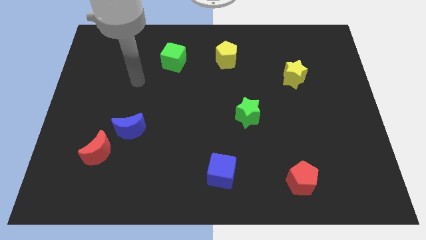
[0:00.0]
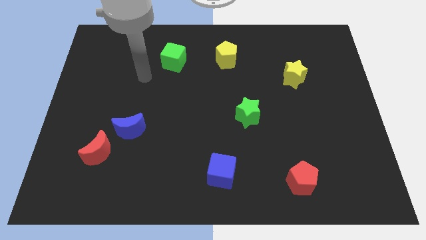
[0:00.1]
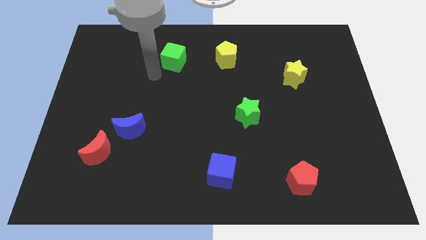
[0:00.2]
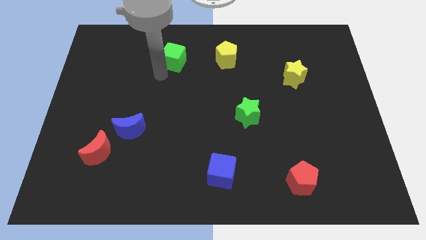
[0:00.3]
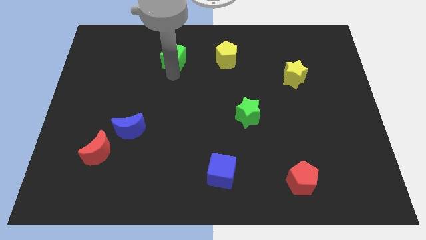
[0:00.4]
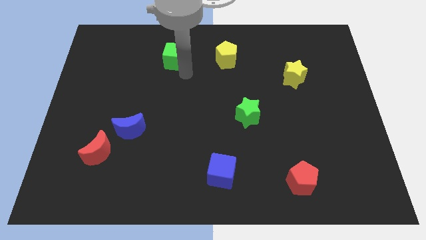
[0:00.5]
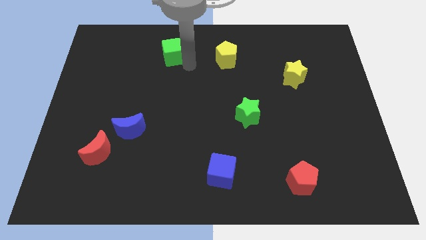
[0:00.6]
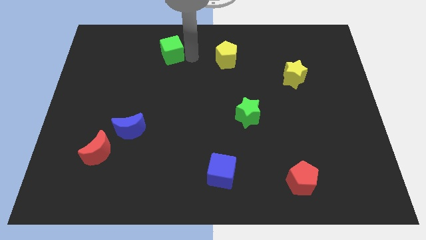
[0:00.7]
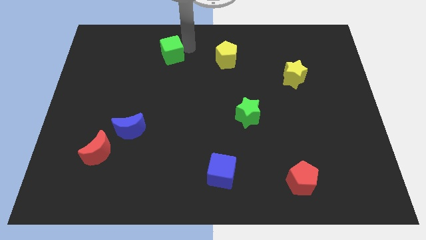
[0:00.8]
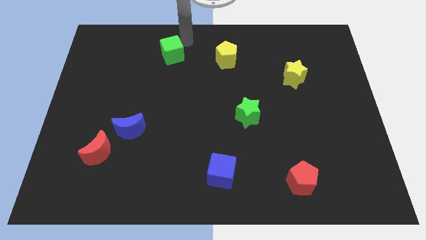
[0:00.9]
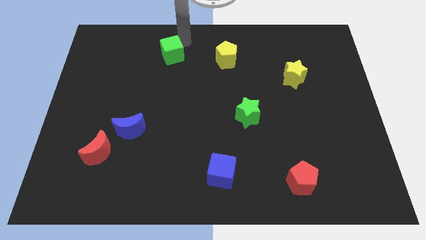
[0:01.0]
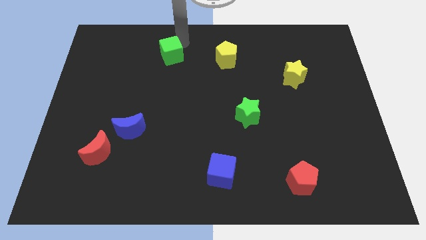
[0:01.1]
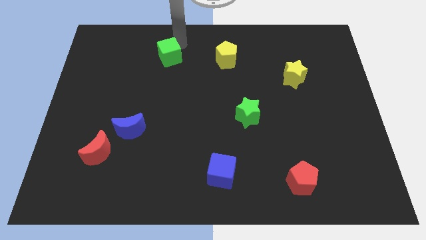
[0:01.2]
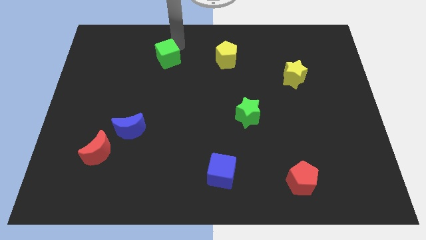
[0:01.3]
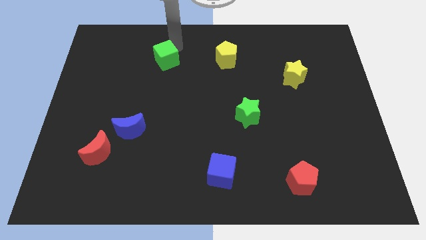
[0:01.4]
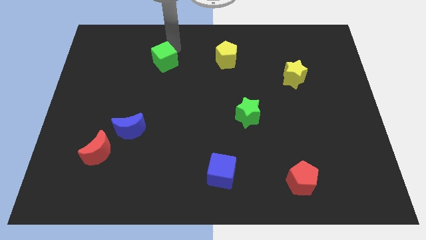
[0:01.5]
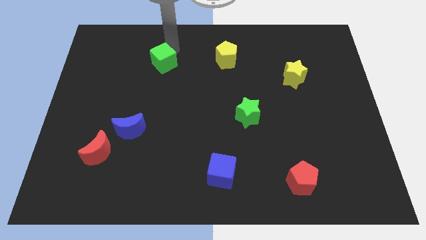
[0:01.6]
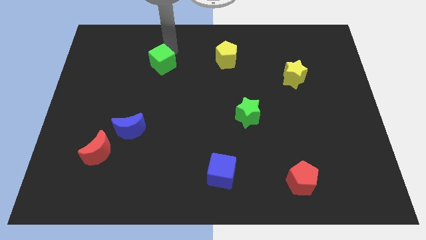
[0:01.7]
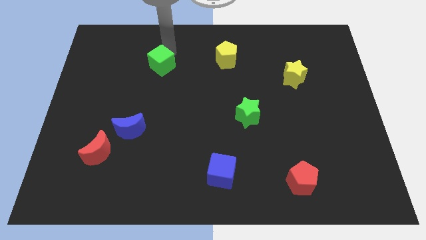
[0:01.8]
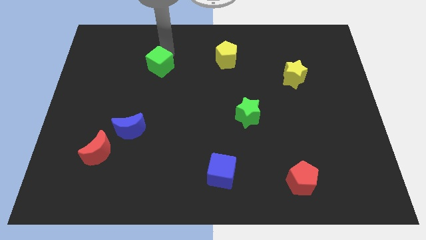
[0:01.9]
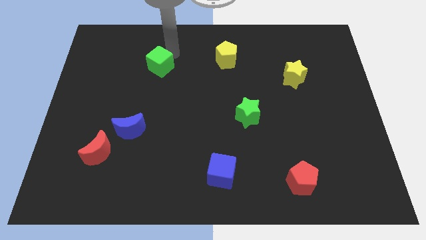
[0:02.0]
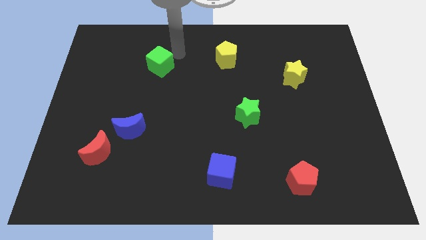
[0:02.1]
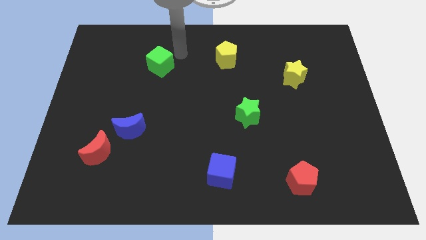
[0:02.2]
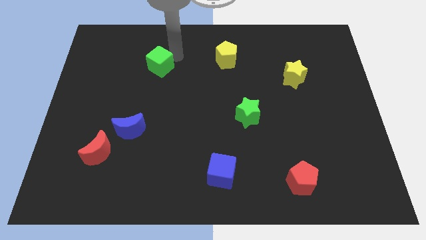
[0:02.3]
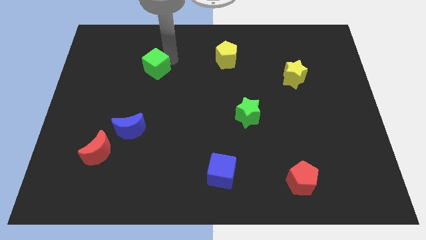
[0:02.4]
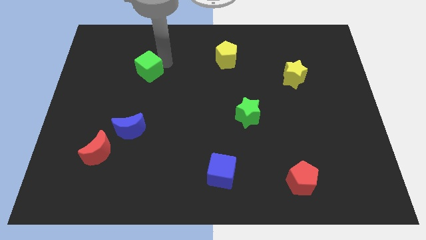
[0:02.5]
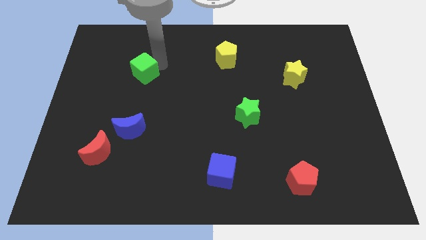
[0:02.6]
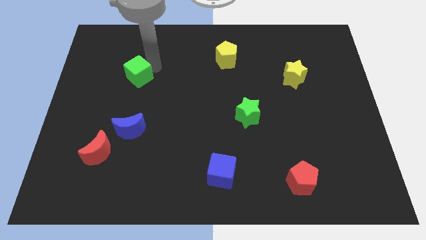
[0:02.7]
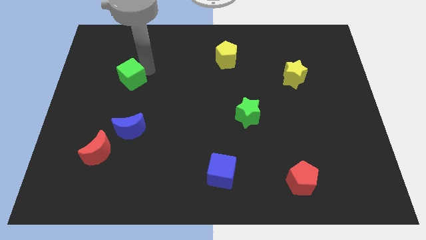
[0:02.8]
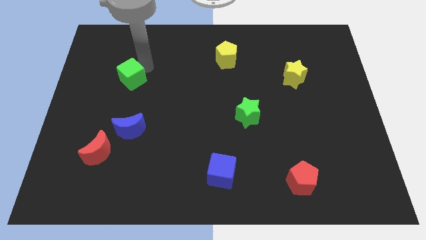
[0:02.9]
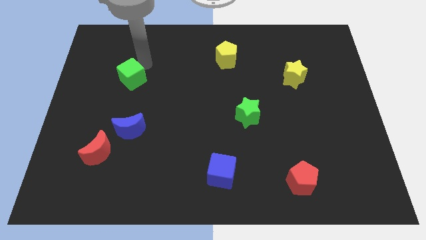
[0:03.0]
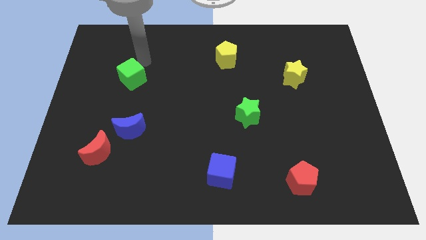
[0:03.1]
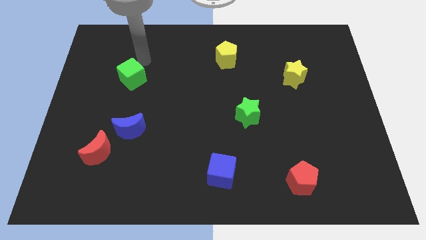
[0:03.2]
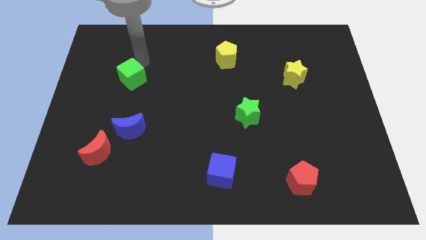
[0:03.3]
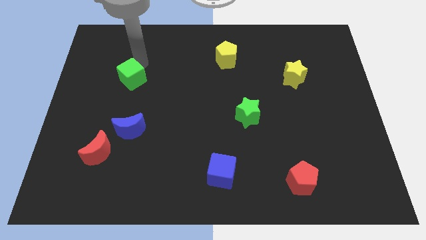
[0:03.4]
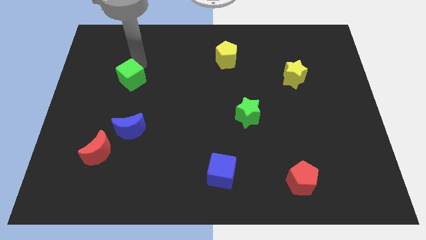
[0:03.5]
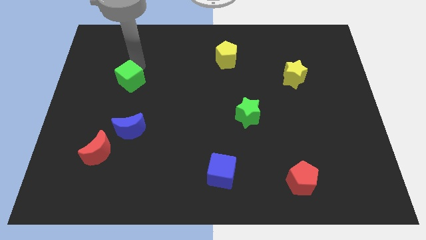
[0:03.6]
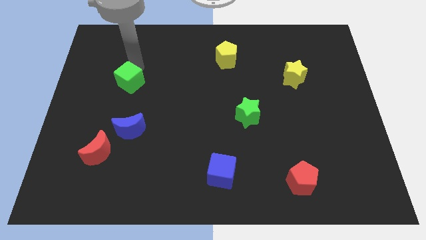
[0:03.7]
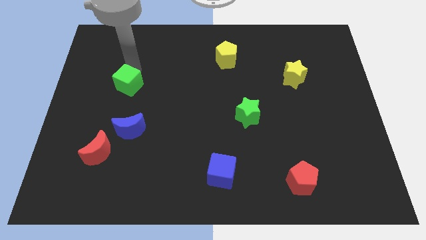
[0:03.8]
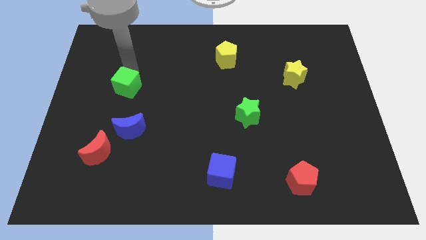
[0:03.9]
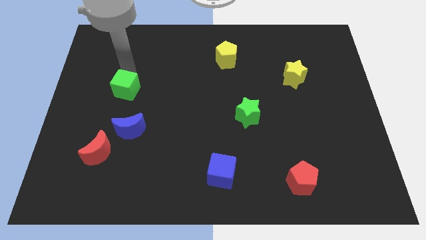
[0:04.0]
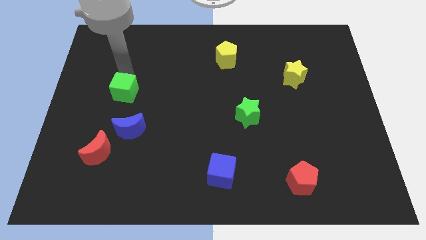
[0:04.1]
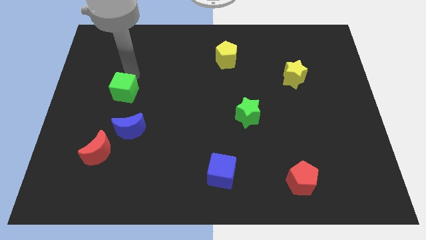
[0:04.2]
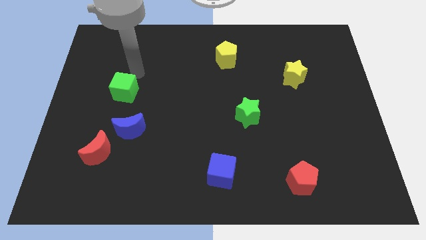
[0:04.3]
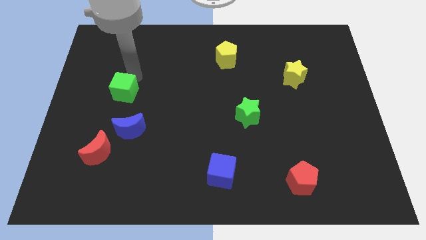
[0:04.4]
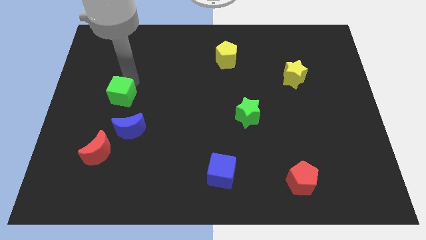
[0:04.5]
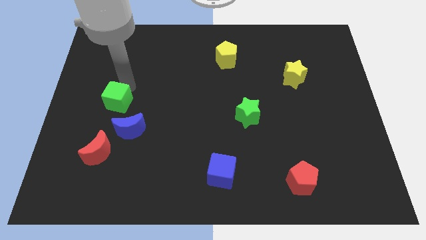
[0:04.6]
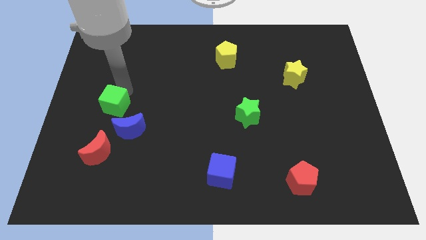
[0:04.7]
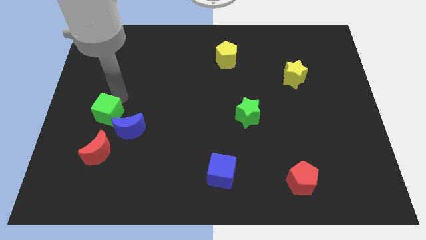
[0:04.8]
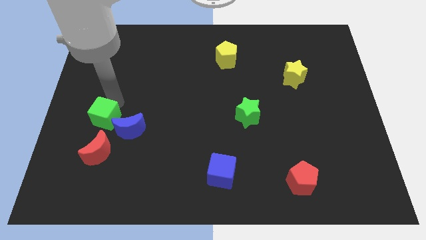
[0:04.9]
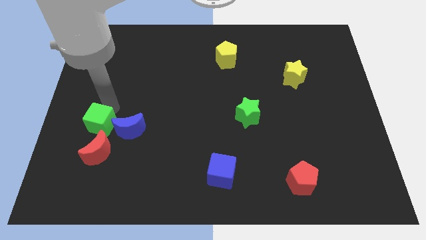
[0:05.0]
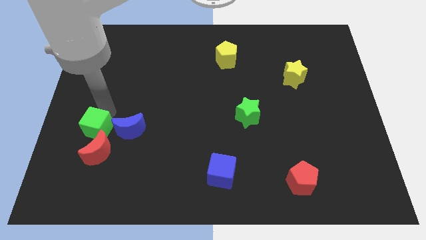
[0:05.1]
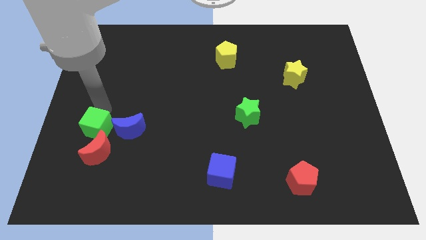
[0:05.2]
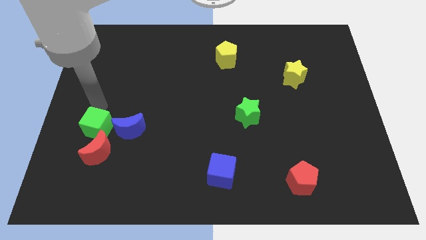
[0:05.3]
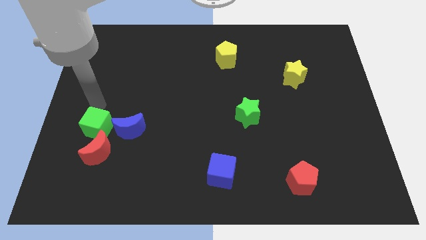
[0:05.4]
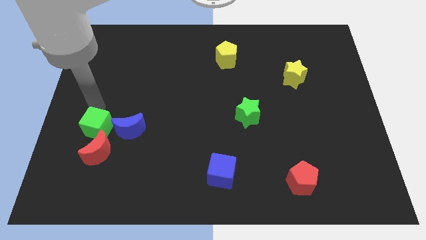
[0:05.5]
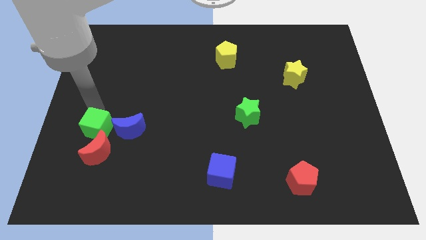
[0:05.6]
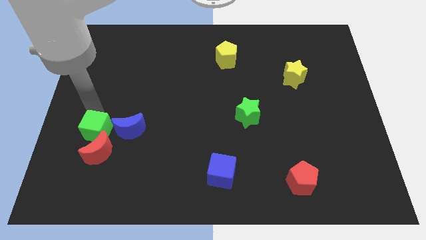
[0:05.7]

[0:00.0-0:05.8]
push the green cube close to the red moon

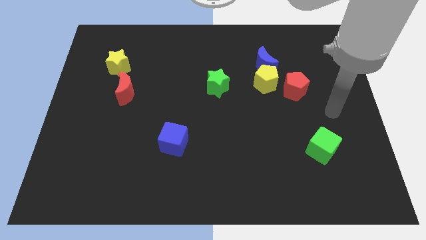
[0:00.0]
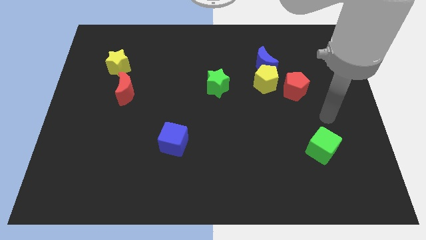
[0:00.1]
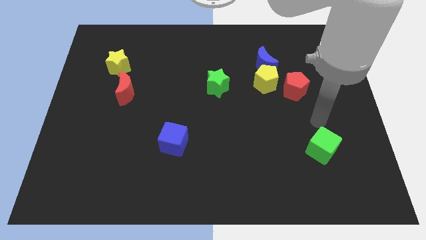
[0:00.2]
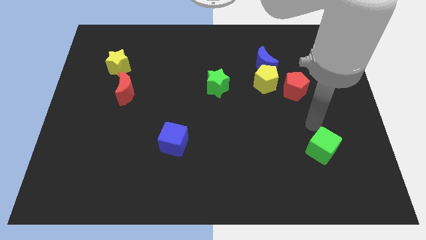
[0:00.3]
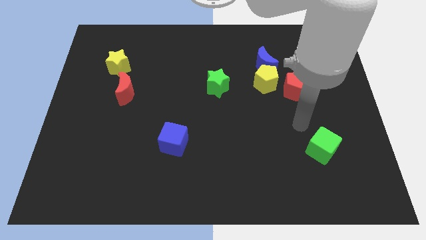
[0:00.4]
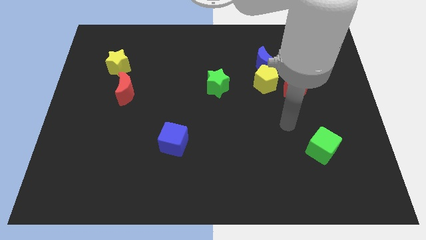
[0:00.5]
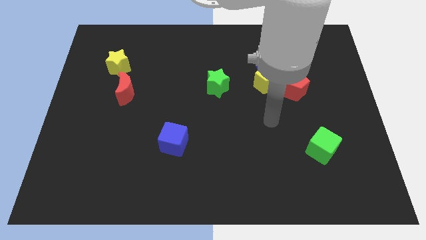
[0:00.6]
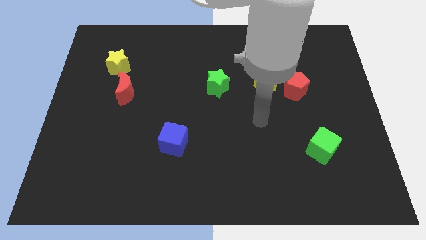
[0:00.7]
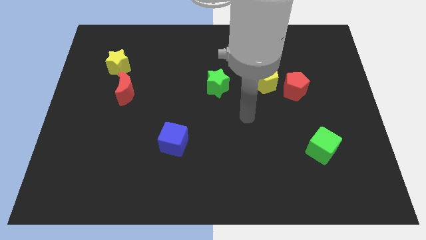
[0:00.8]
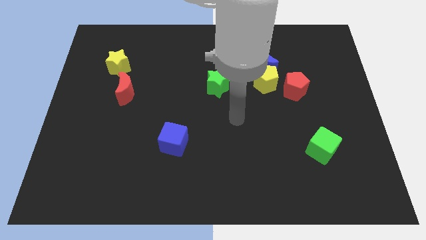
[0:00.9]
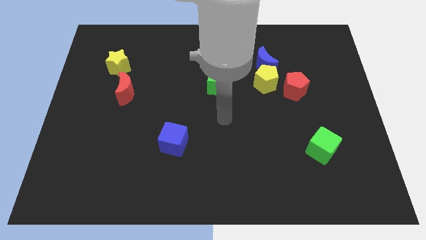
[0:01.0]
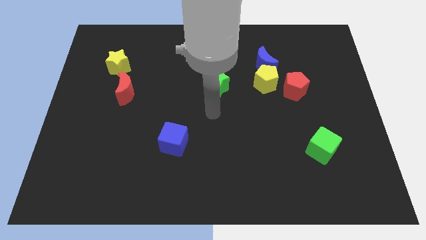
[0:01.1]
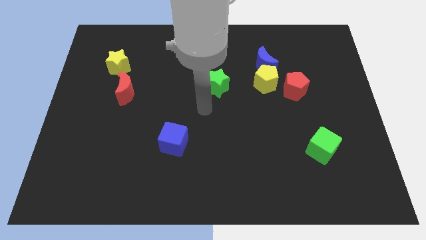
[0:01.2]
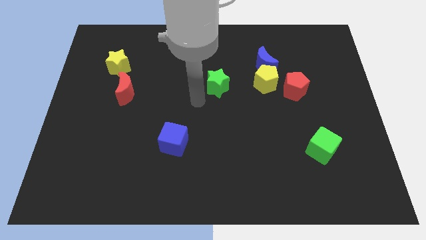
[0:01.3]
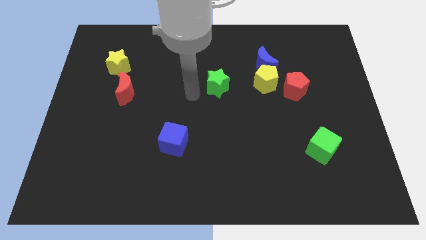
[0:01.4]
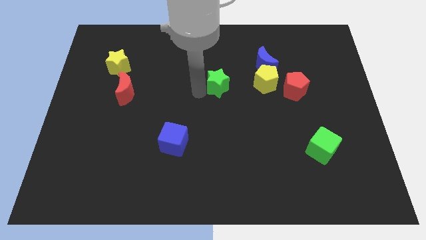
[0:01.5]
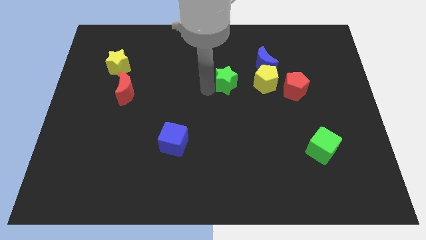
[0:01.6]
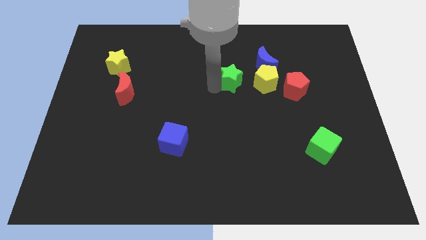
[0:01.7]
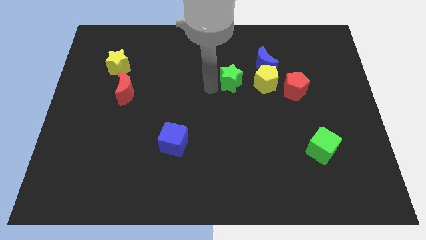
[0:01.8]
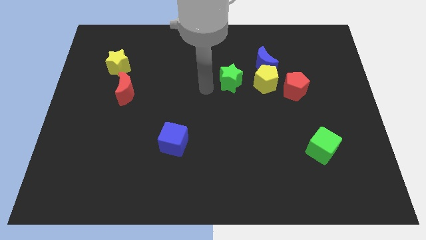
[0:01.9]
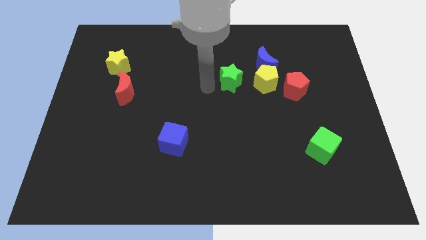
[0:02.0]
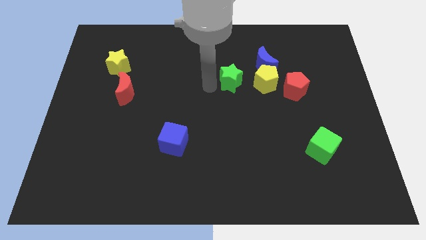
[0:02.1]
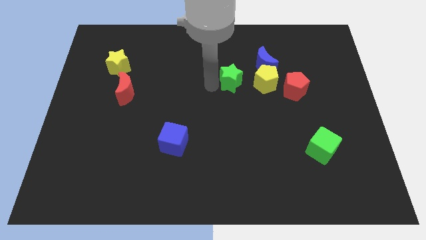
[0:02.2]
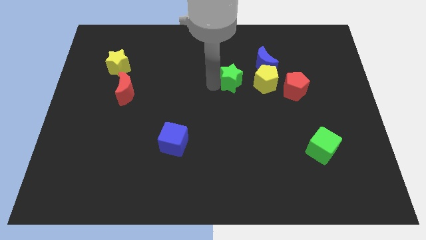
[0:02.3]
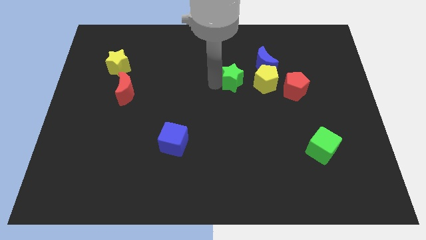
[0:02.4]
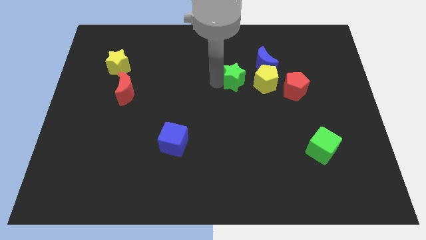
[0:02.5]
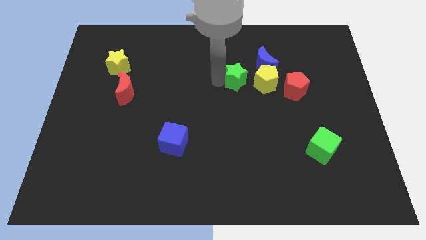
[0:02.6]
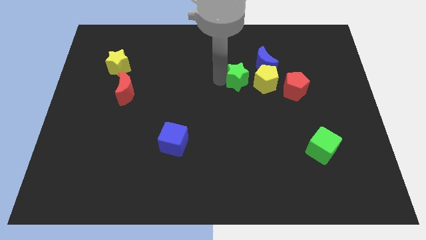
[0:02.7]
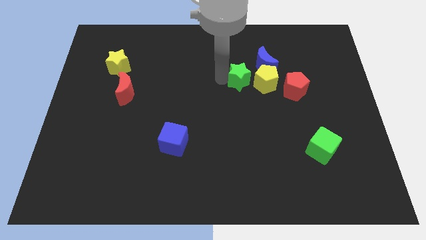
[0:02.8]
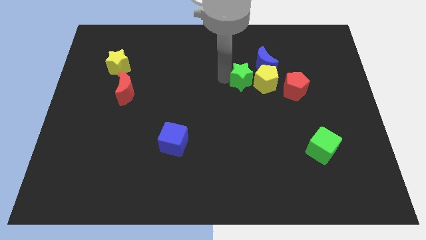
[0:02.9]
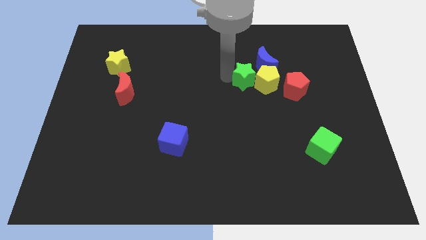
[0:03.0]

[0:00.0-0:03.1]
slide the green star close to the yellow pentagon
